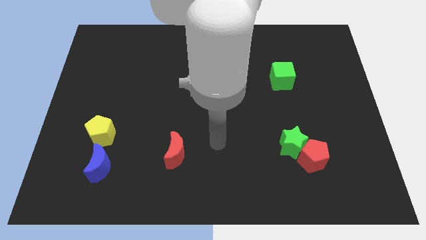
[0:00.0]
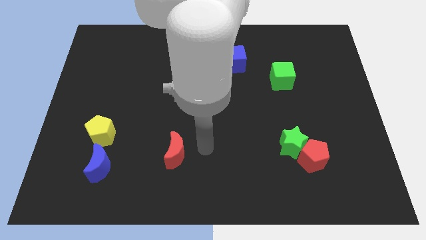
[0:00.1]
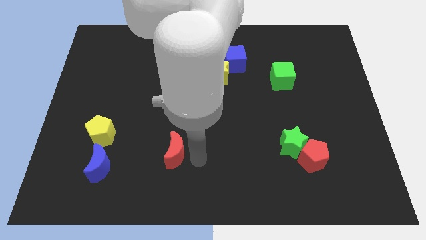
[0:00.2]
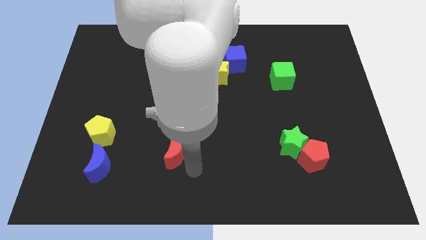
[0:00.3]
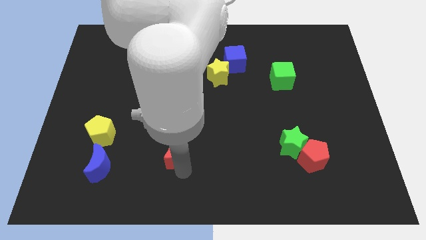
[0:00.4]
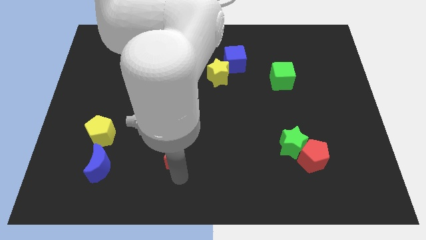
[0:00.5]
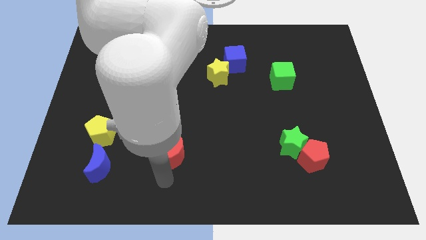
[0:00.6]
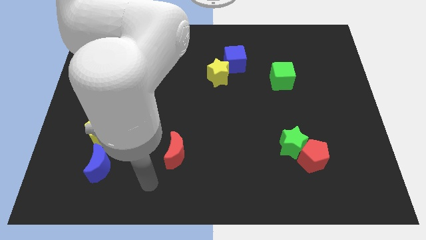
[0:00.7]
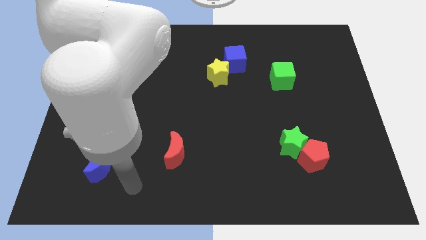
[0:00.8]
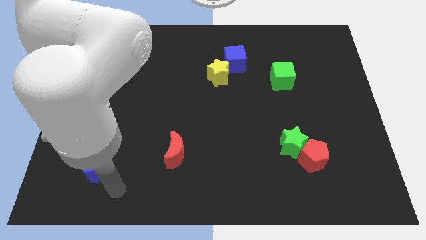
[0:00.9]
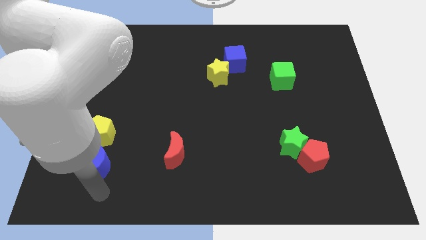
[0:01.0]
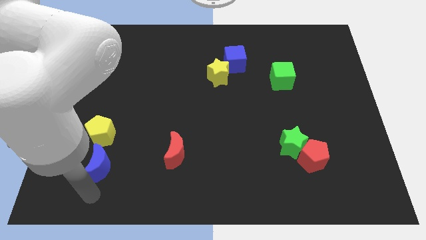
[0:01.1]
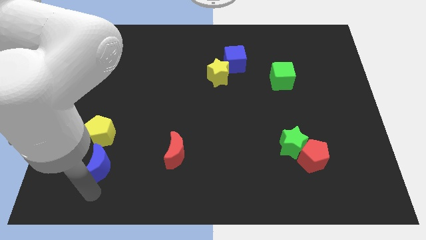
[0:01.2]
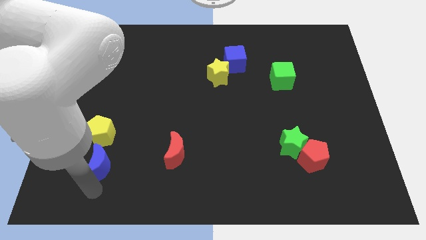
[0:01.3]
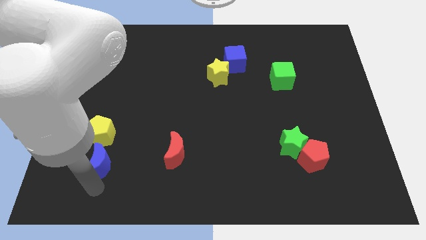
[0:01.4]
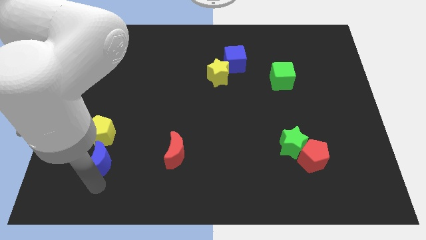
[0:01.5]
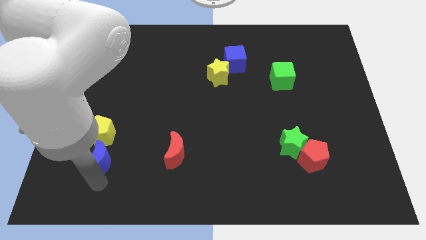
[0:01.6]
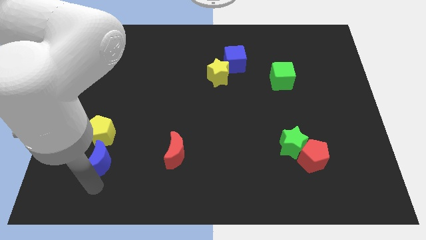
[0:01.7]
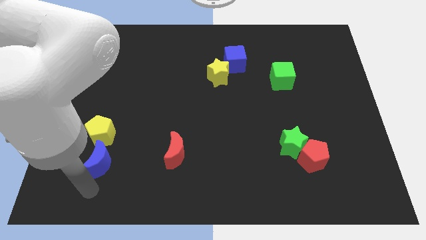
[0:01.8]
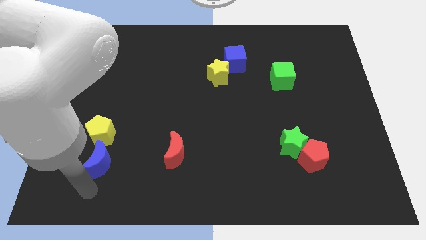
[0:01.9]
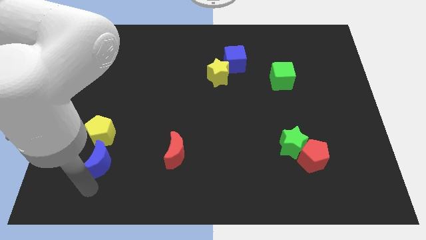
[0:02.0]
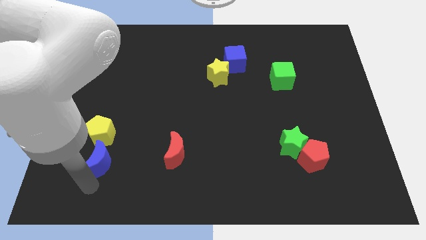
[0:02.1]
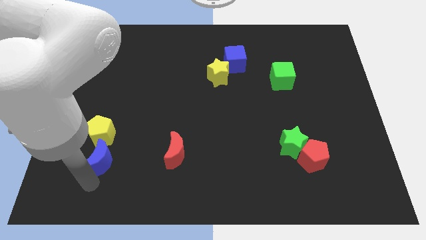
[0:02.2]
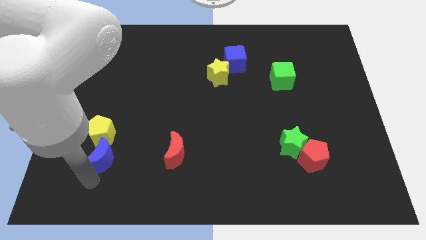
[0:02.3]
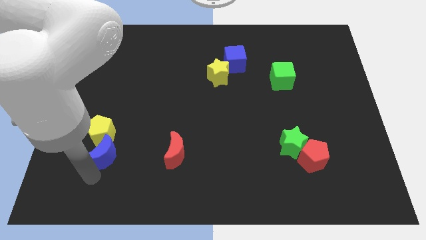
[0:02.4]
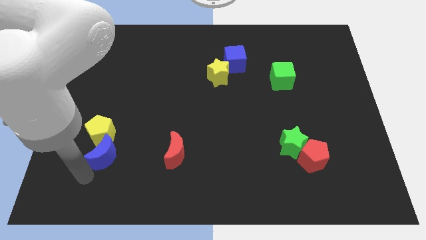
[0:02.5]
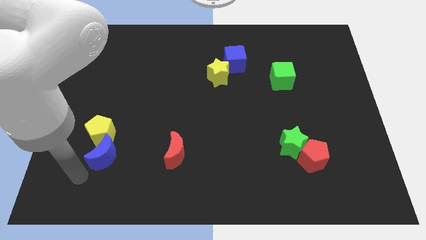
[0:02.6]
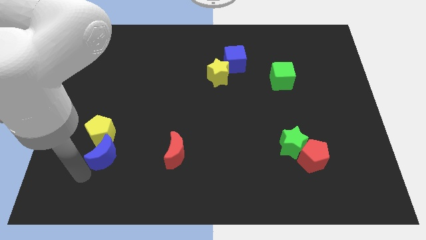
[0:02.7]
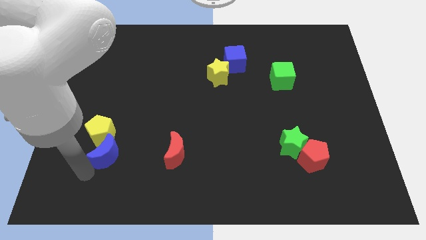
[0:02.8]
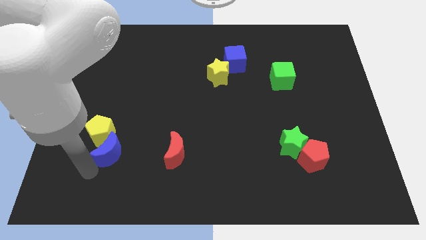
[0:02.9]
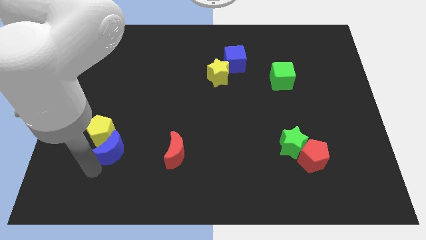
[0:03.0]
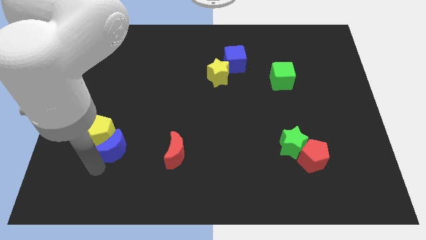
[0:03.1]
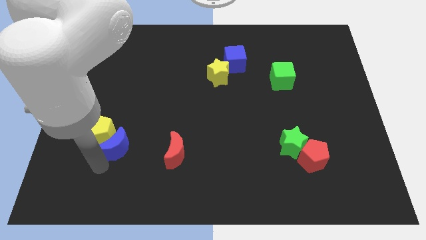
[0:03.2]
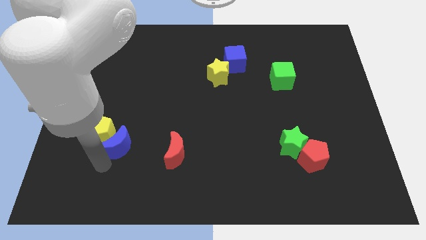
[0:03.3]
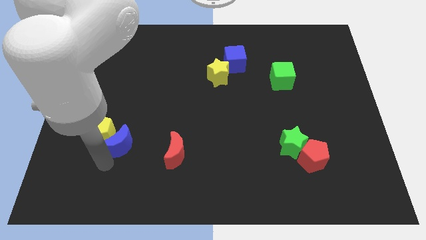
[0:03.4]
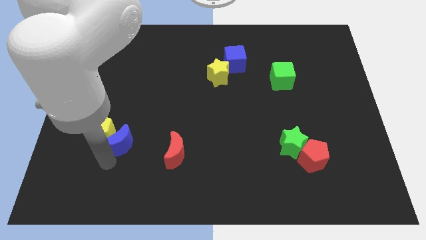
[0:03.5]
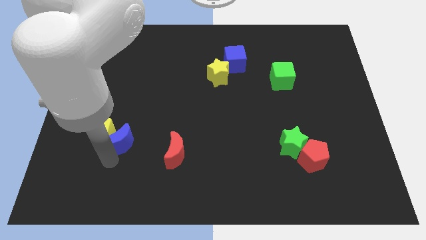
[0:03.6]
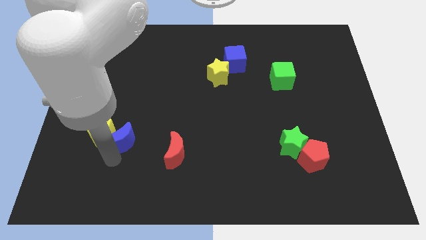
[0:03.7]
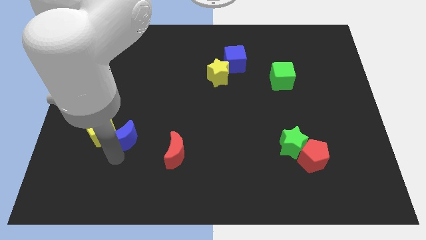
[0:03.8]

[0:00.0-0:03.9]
move the blue moon somewhat up and then right

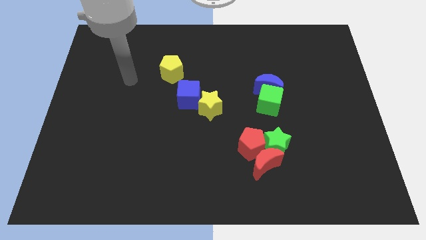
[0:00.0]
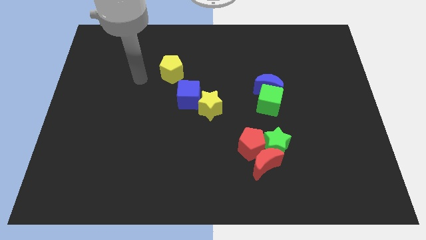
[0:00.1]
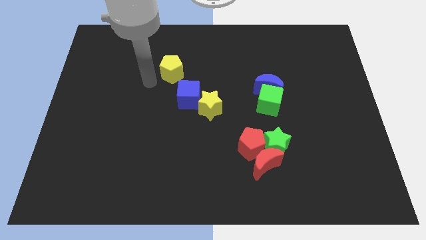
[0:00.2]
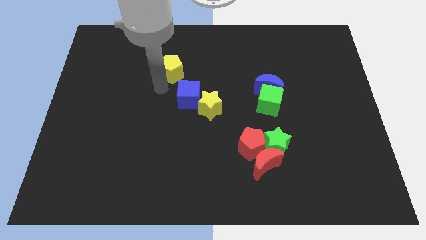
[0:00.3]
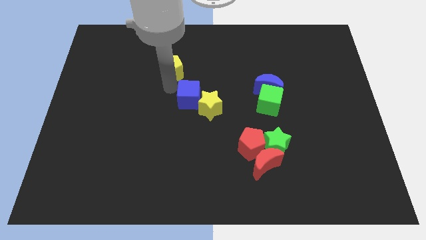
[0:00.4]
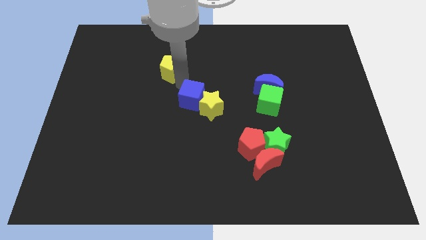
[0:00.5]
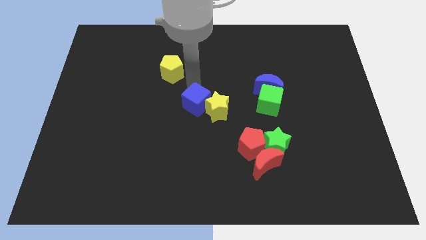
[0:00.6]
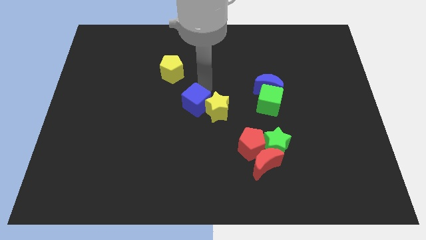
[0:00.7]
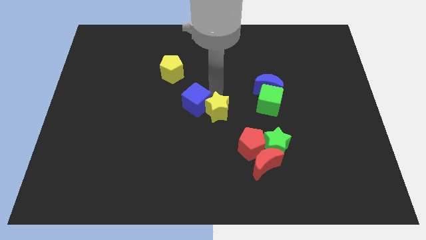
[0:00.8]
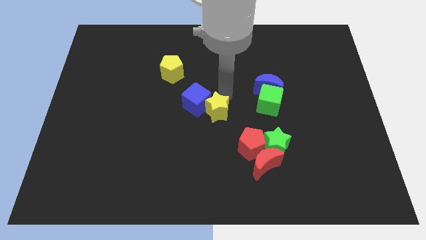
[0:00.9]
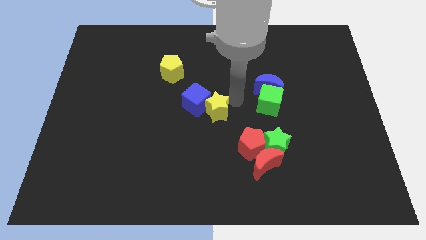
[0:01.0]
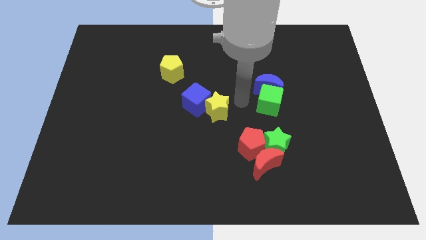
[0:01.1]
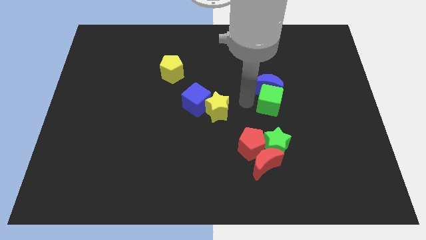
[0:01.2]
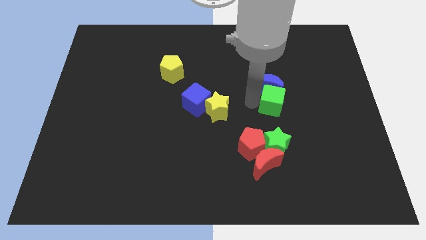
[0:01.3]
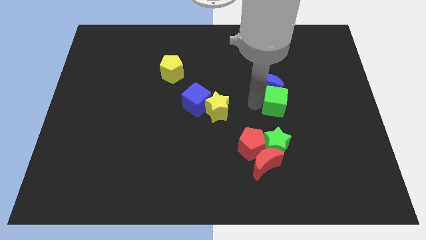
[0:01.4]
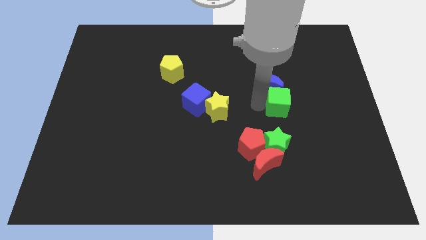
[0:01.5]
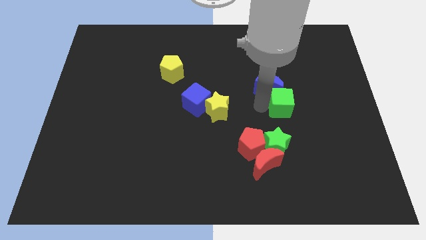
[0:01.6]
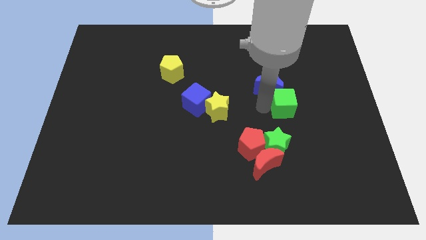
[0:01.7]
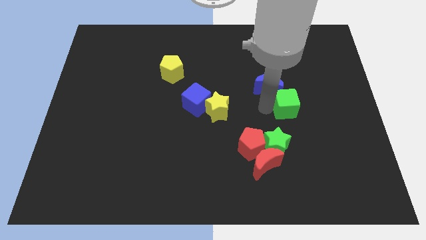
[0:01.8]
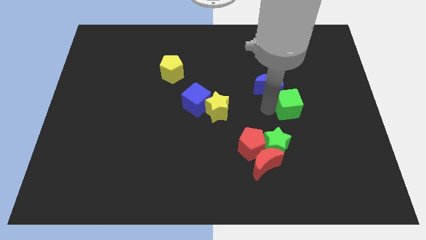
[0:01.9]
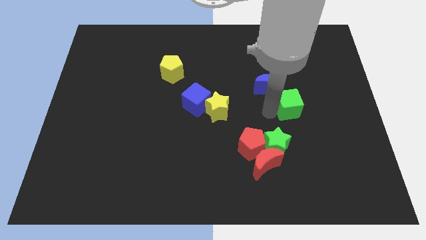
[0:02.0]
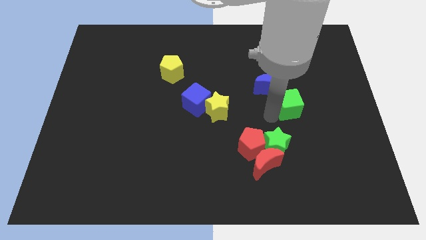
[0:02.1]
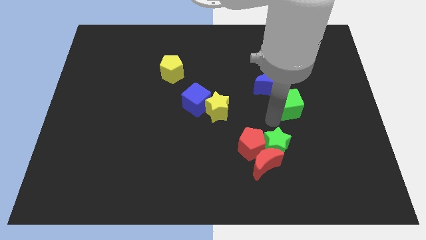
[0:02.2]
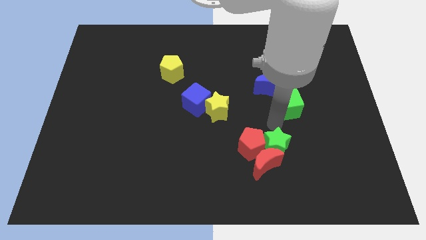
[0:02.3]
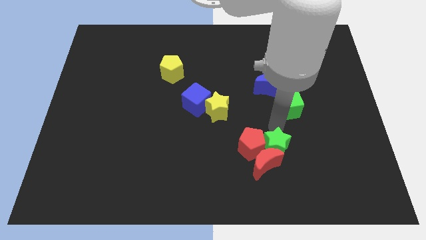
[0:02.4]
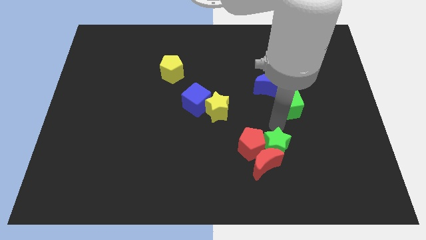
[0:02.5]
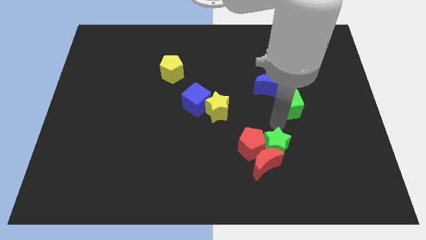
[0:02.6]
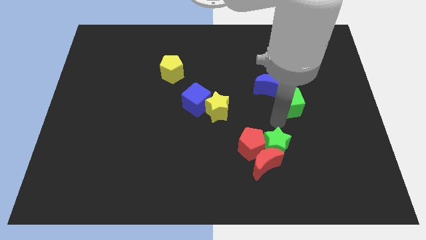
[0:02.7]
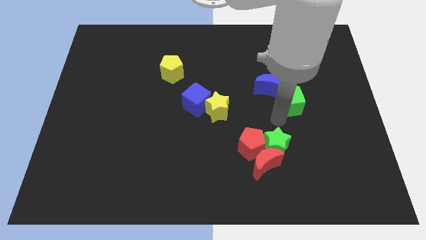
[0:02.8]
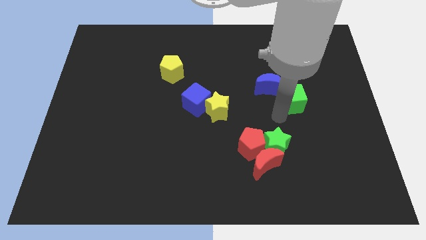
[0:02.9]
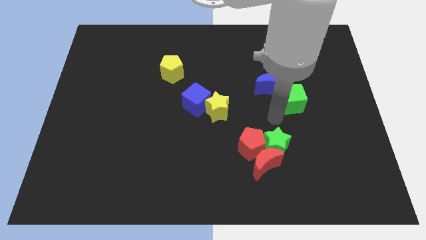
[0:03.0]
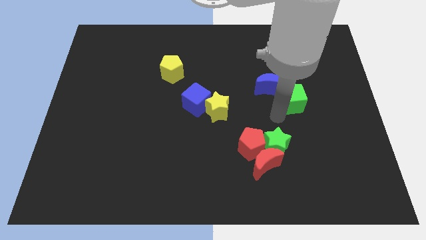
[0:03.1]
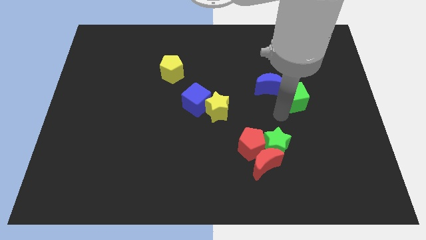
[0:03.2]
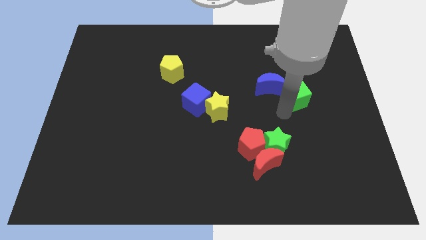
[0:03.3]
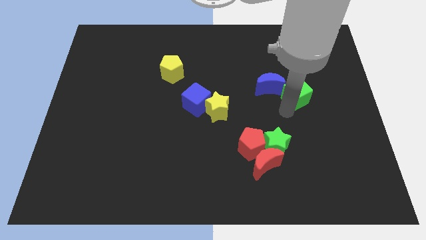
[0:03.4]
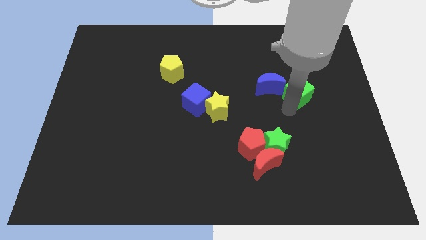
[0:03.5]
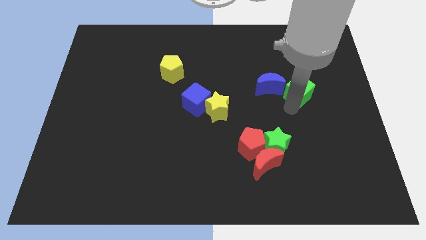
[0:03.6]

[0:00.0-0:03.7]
slightly push the green cube up and to the right

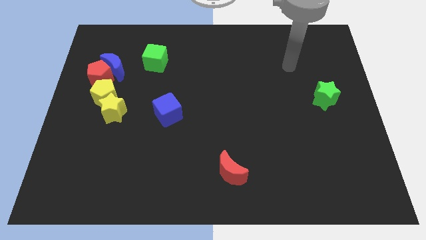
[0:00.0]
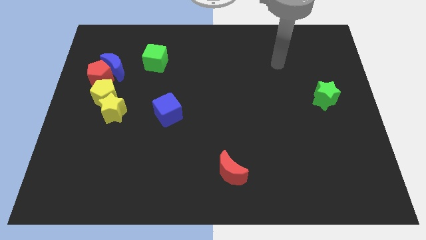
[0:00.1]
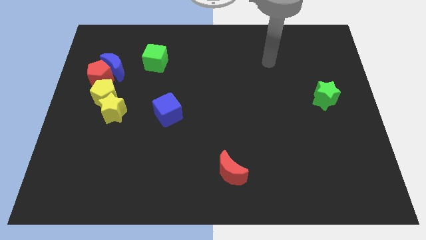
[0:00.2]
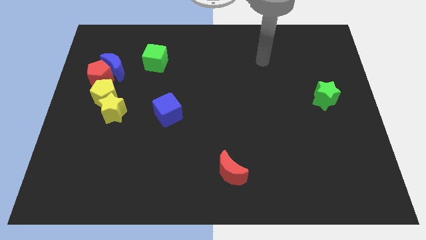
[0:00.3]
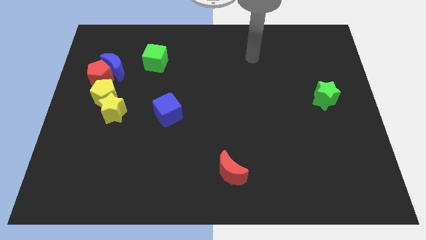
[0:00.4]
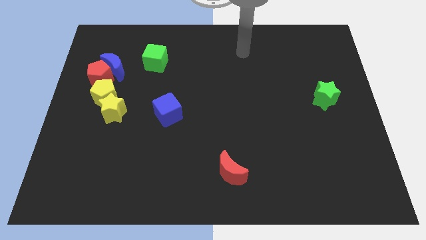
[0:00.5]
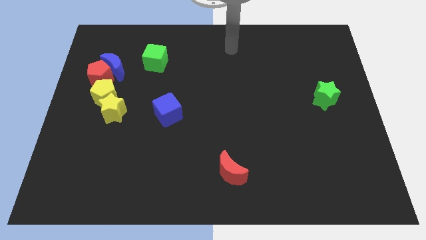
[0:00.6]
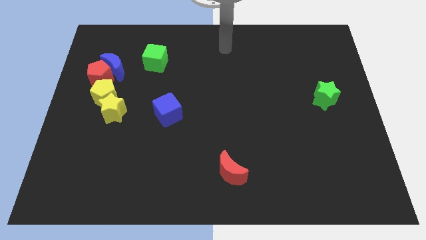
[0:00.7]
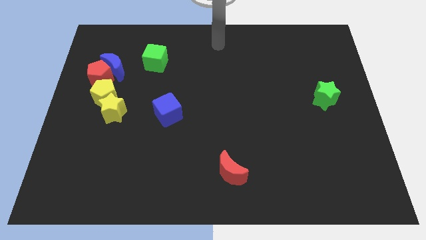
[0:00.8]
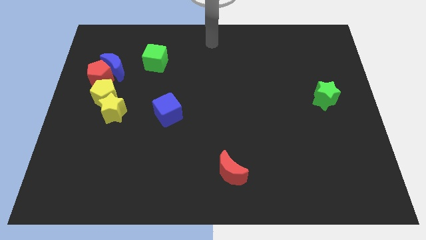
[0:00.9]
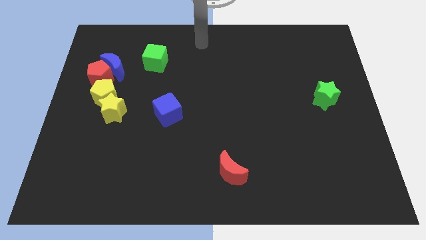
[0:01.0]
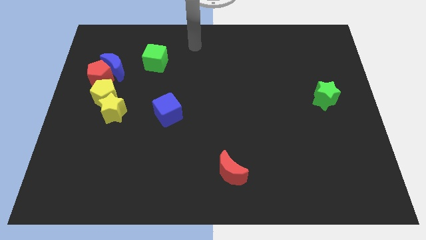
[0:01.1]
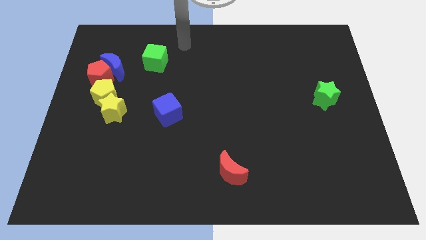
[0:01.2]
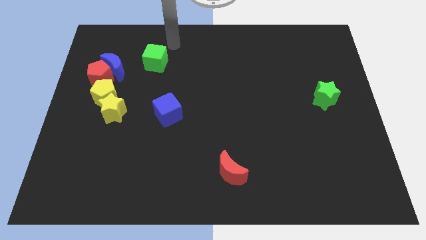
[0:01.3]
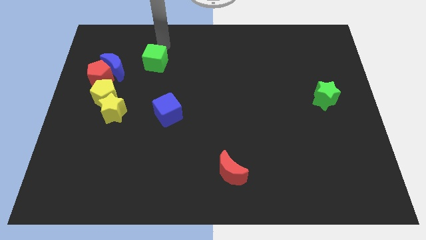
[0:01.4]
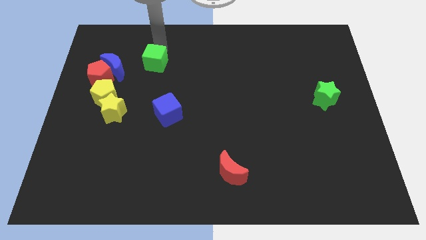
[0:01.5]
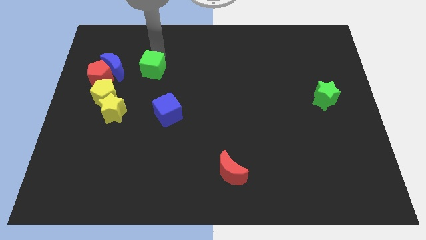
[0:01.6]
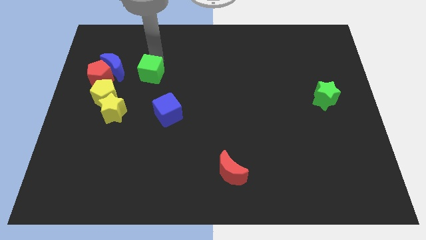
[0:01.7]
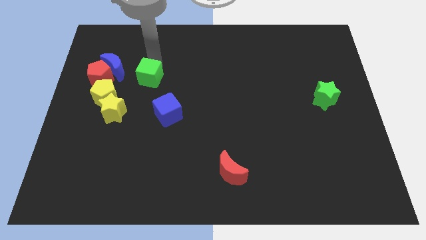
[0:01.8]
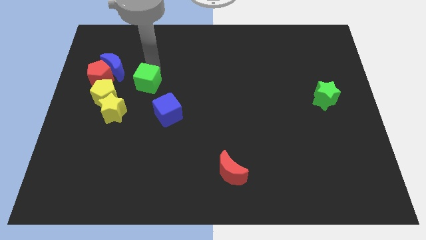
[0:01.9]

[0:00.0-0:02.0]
slightly move the green cube downwards
